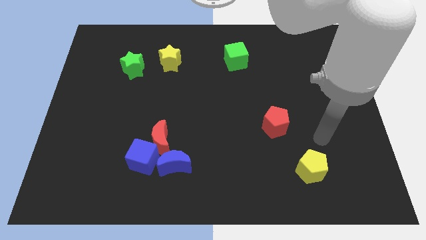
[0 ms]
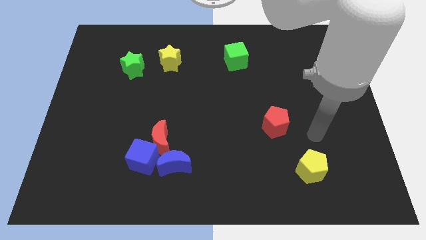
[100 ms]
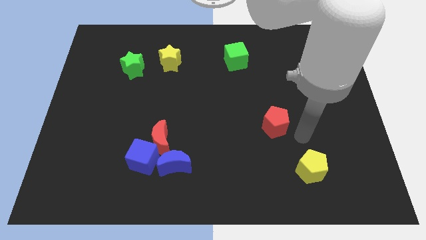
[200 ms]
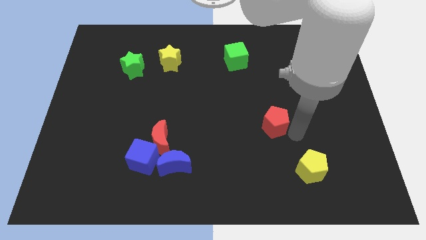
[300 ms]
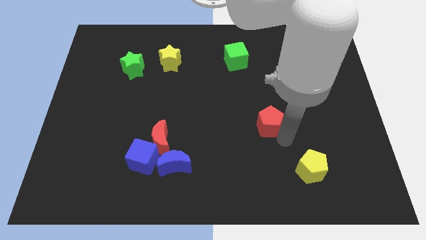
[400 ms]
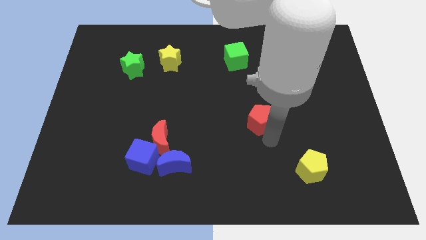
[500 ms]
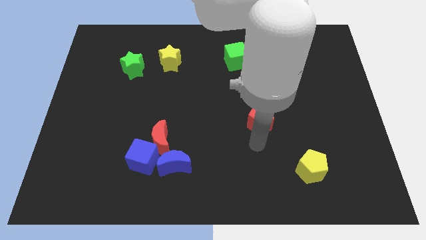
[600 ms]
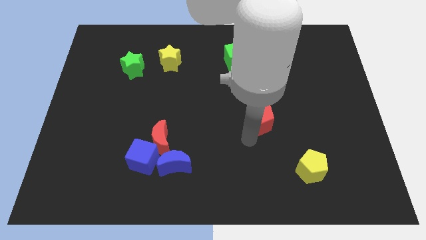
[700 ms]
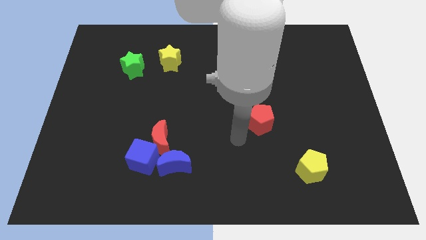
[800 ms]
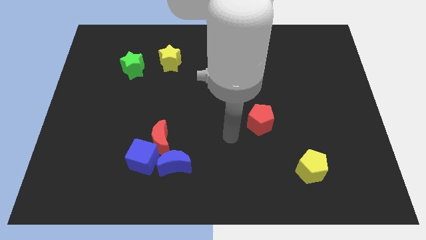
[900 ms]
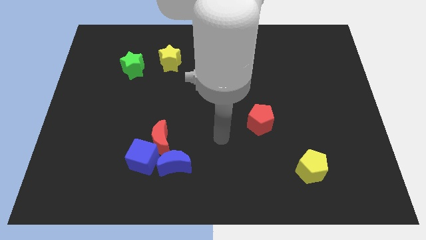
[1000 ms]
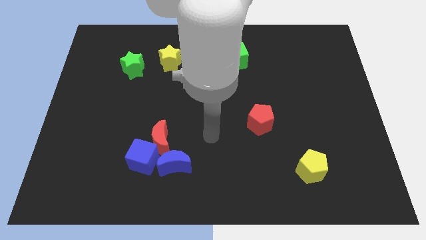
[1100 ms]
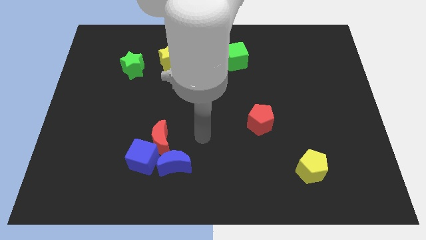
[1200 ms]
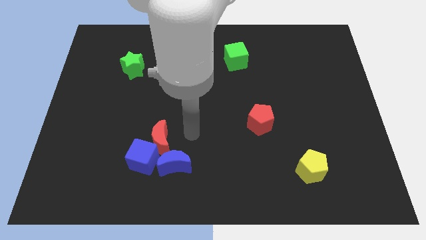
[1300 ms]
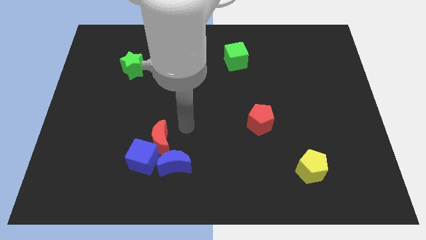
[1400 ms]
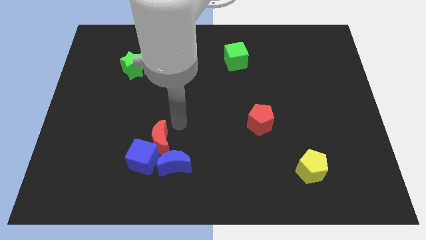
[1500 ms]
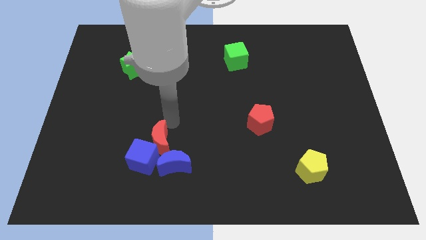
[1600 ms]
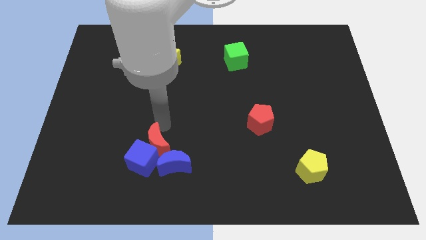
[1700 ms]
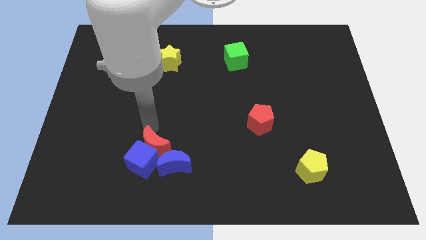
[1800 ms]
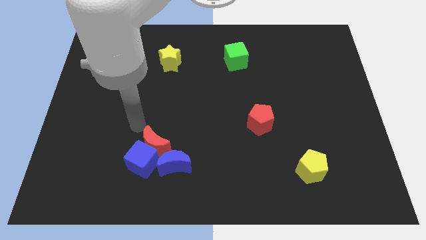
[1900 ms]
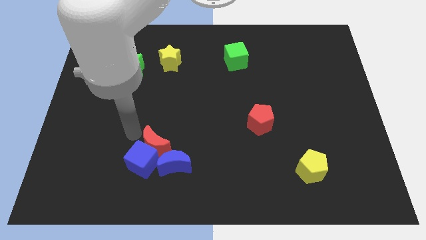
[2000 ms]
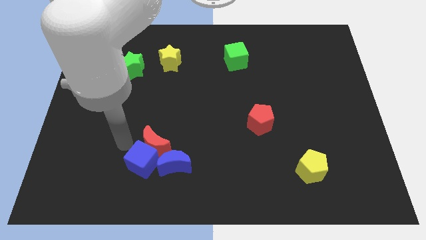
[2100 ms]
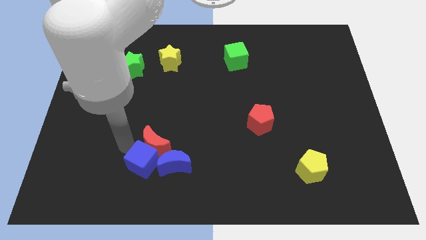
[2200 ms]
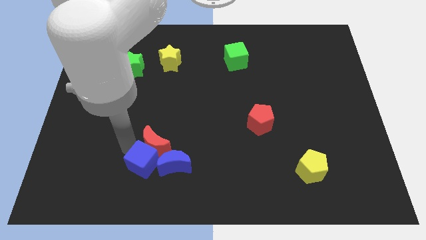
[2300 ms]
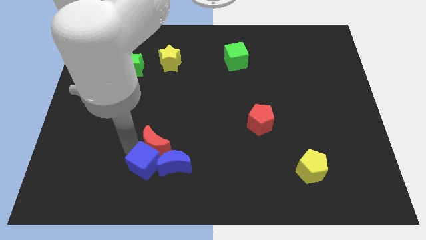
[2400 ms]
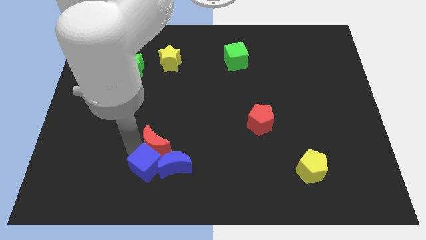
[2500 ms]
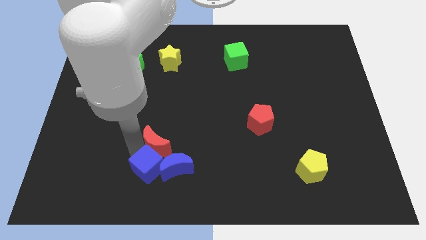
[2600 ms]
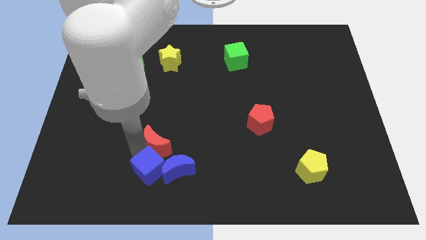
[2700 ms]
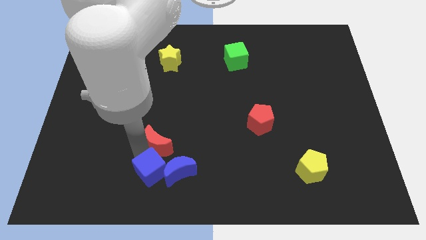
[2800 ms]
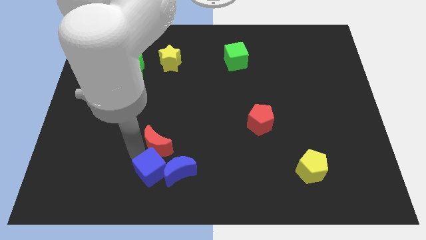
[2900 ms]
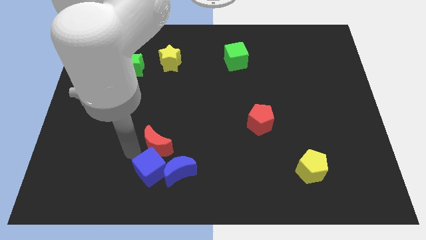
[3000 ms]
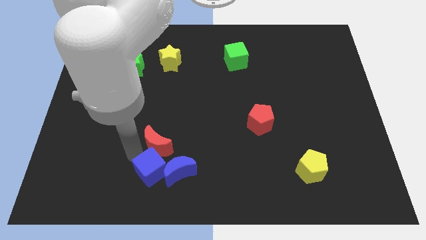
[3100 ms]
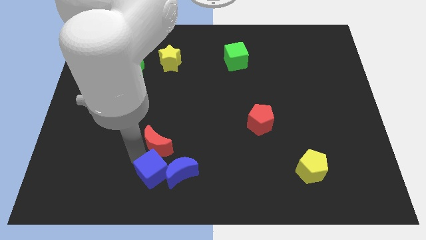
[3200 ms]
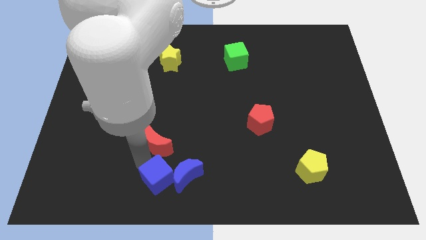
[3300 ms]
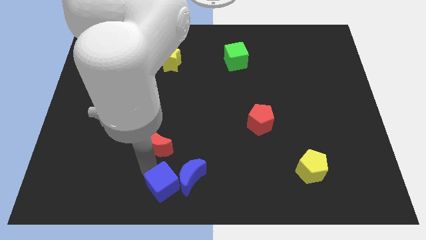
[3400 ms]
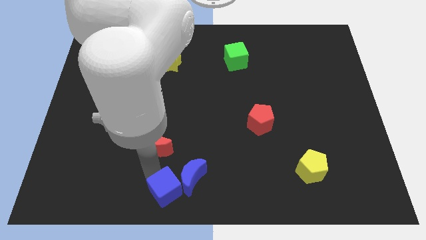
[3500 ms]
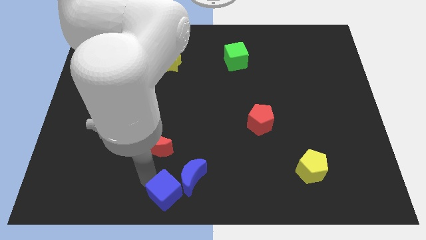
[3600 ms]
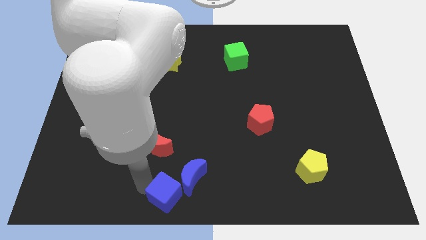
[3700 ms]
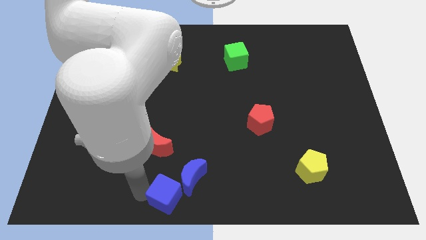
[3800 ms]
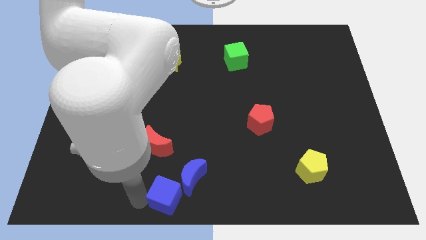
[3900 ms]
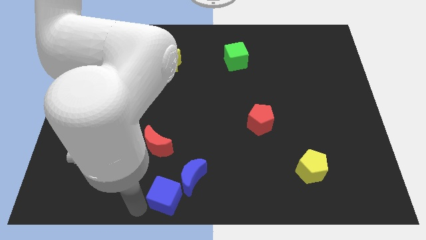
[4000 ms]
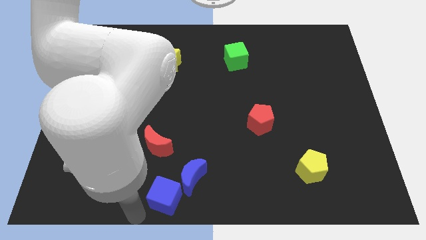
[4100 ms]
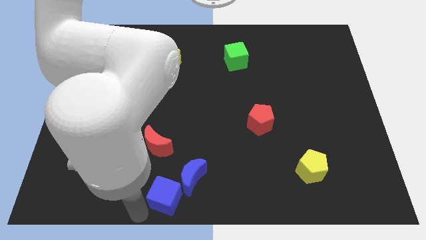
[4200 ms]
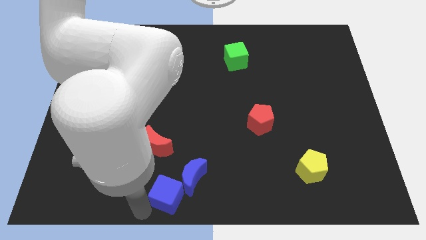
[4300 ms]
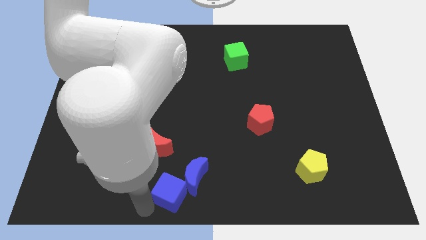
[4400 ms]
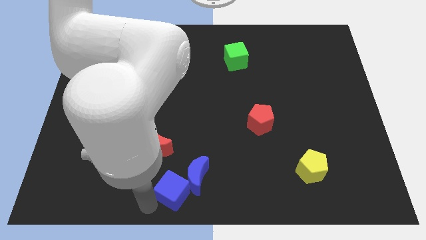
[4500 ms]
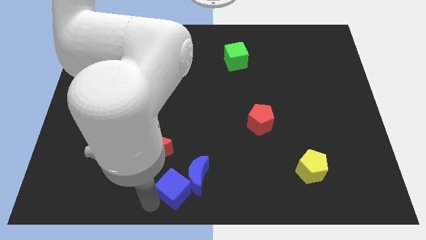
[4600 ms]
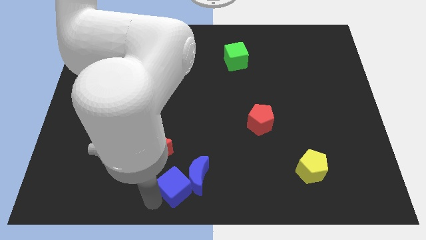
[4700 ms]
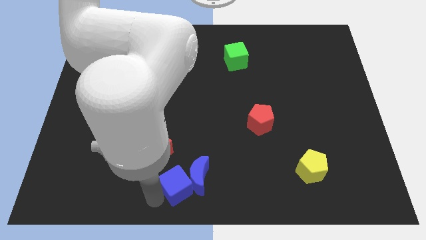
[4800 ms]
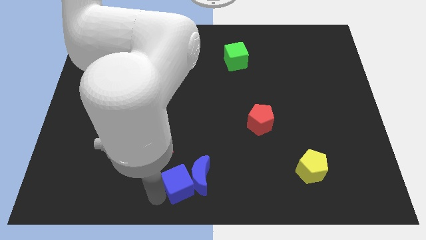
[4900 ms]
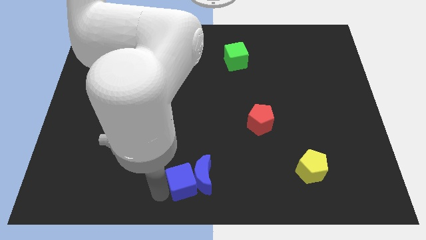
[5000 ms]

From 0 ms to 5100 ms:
push the blue cube to the right a little bit

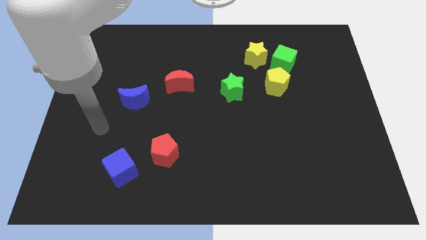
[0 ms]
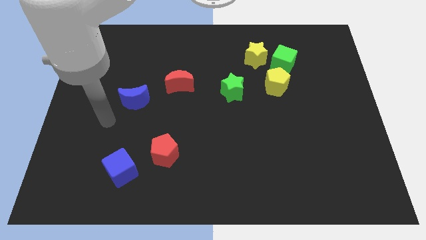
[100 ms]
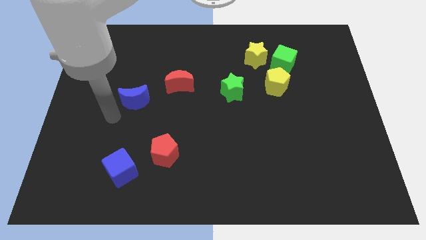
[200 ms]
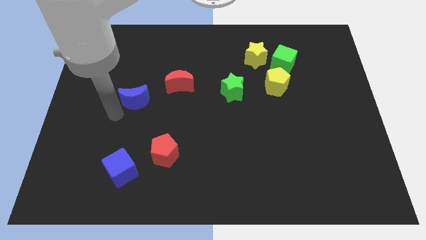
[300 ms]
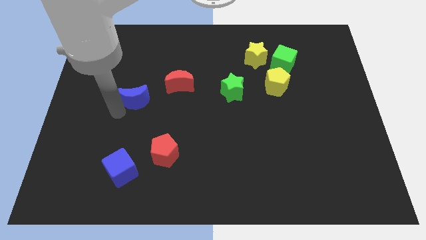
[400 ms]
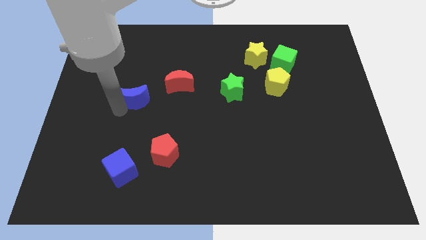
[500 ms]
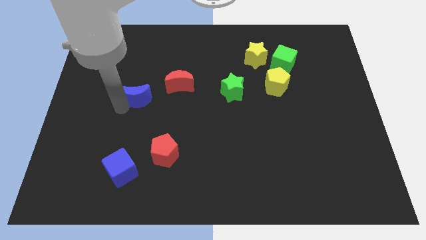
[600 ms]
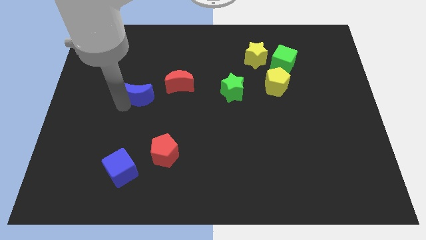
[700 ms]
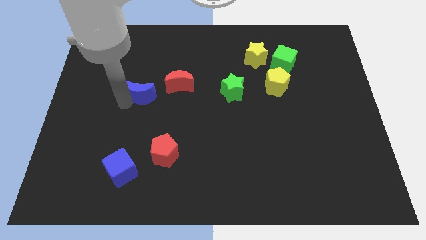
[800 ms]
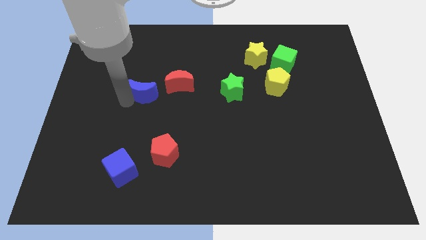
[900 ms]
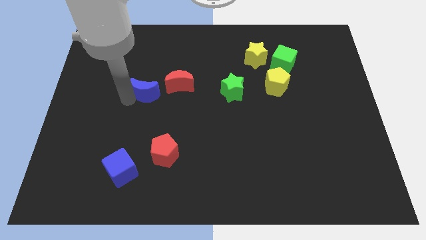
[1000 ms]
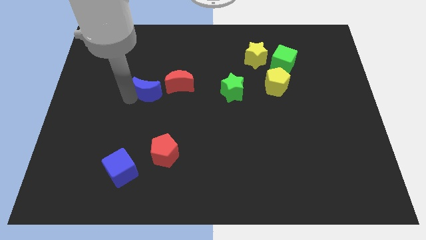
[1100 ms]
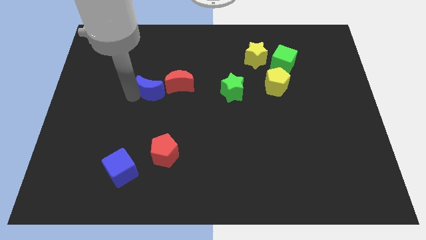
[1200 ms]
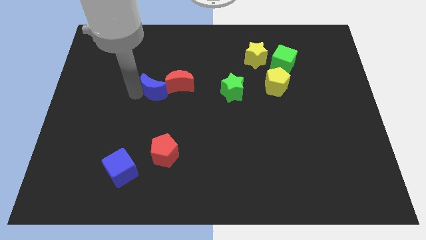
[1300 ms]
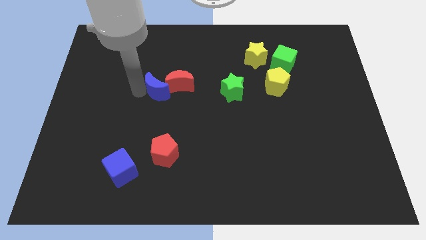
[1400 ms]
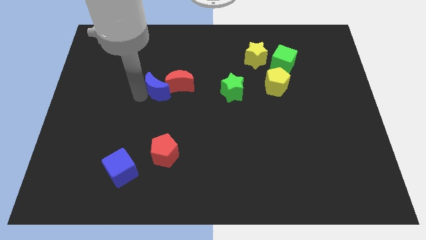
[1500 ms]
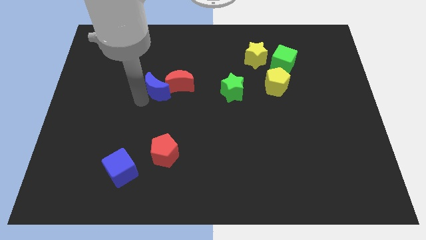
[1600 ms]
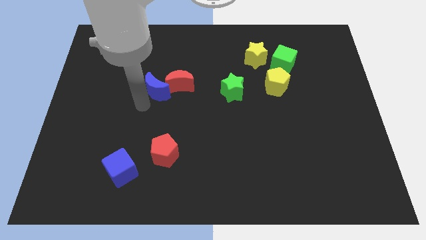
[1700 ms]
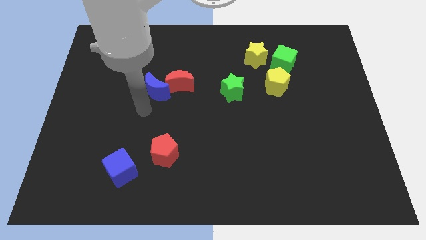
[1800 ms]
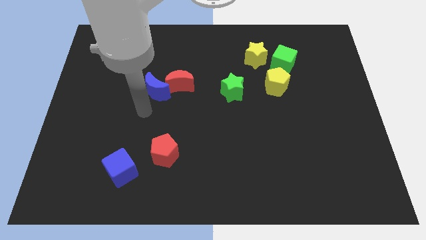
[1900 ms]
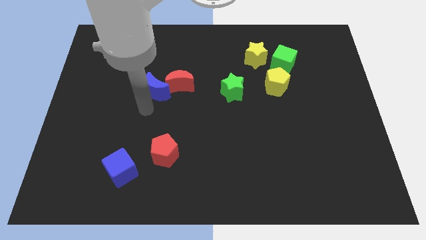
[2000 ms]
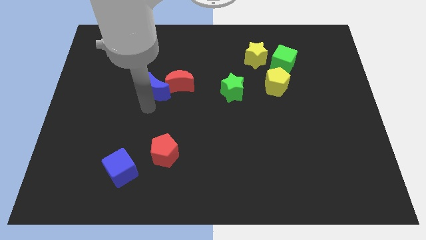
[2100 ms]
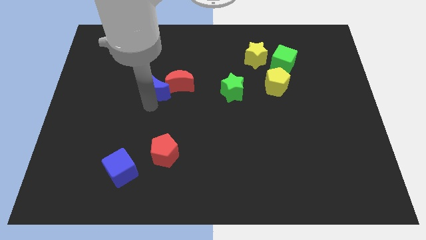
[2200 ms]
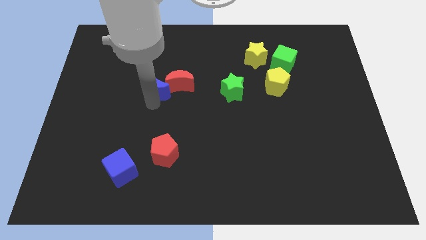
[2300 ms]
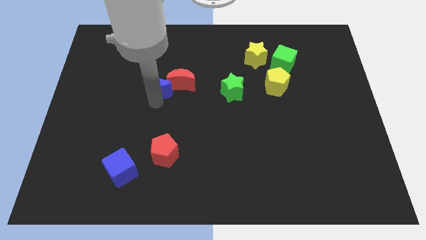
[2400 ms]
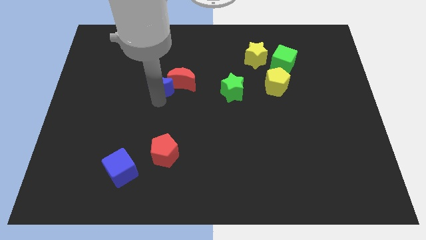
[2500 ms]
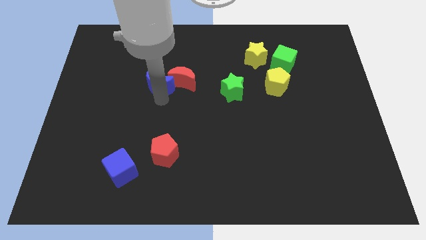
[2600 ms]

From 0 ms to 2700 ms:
slide the blue moon a little up and then to the right

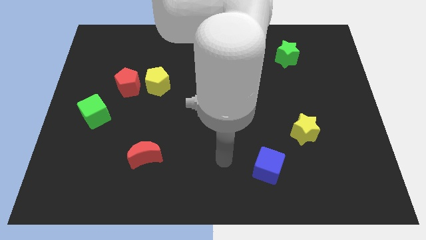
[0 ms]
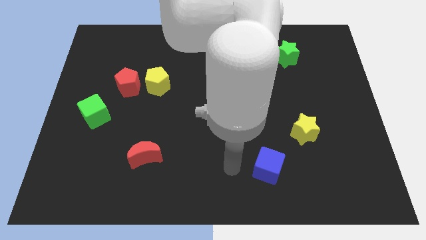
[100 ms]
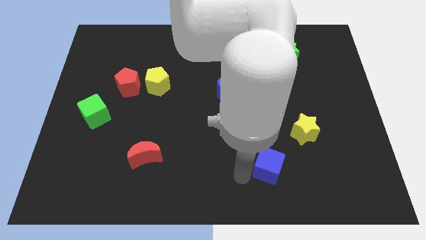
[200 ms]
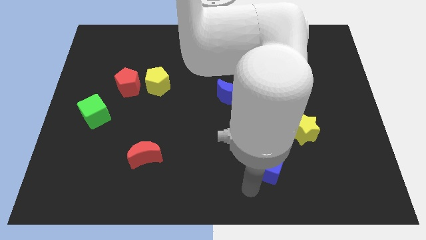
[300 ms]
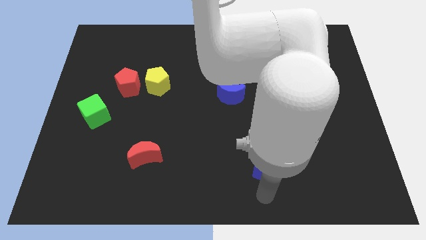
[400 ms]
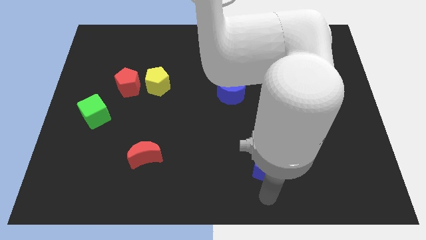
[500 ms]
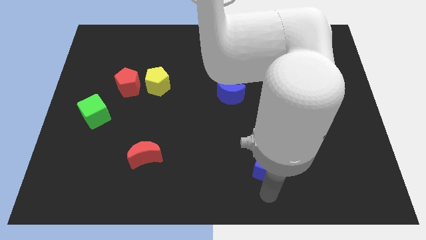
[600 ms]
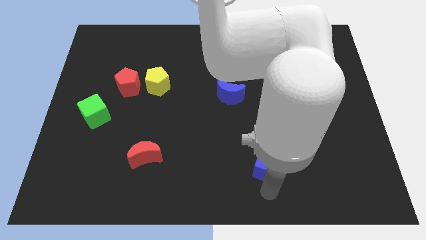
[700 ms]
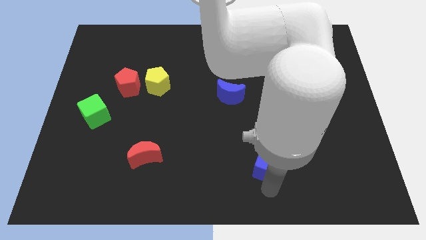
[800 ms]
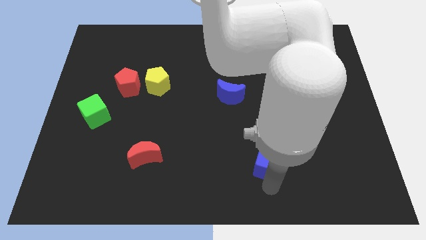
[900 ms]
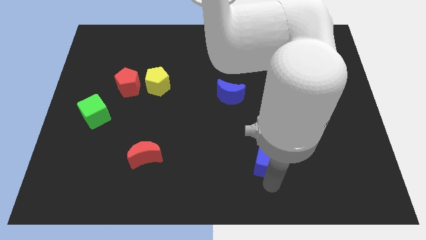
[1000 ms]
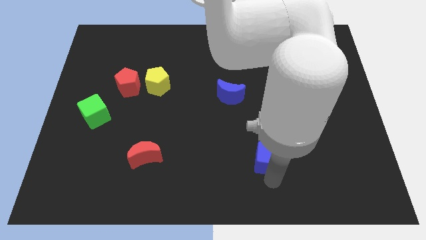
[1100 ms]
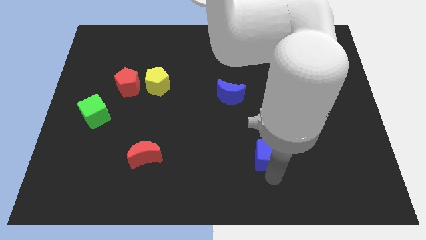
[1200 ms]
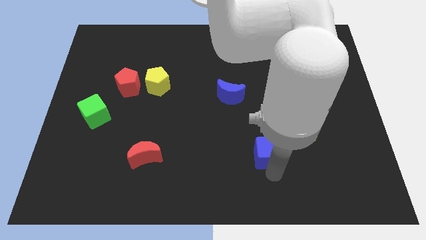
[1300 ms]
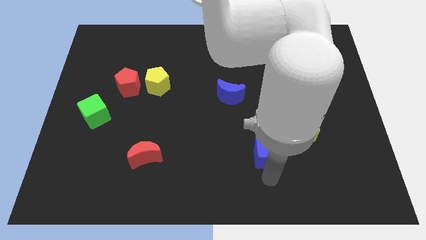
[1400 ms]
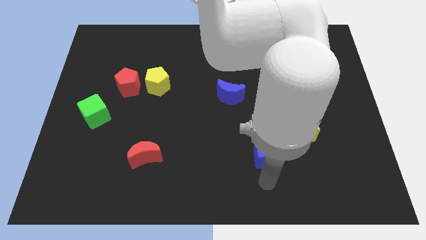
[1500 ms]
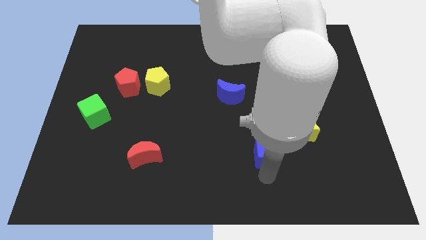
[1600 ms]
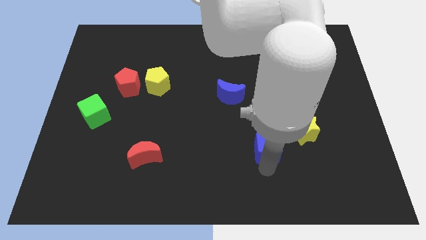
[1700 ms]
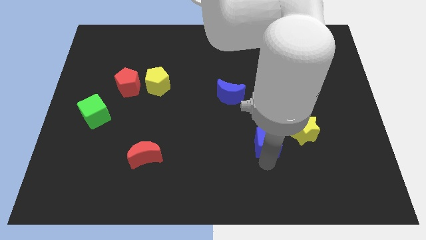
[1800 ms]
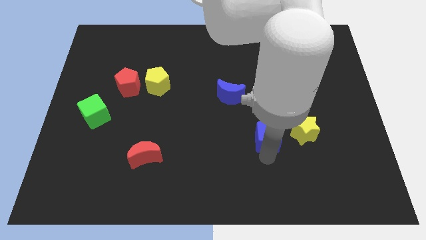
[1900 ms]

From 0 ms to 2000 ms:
slightly slide the blue cube up
